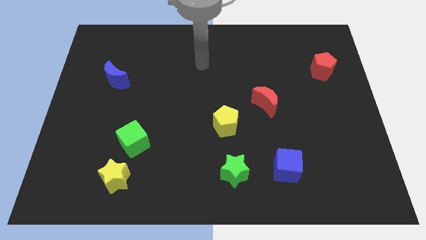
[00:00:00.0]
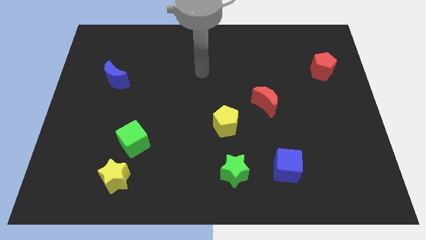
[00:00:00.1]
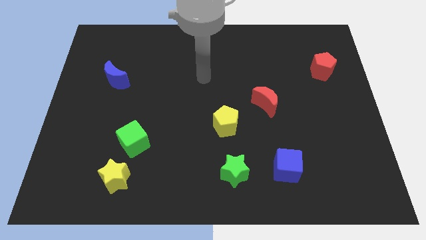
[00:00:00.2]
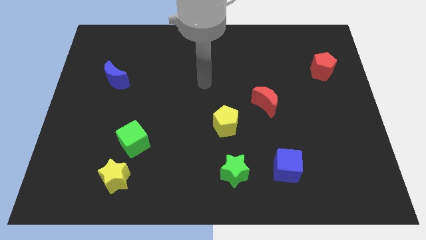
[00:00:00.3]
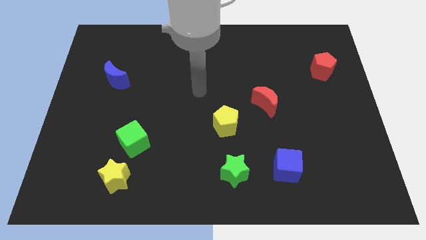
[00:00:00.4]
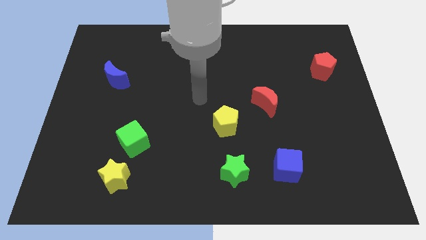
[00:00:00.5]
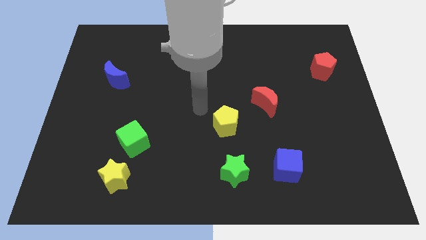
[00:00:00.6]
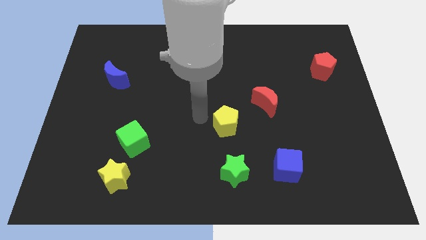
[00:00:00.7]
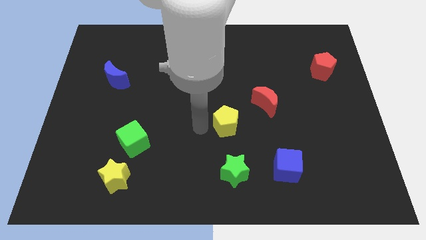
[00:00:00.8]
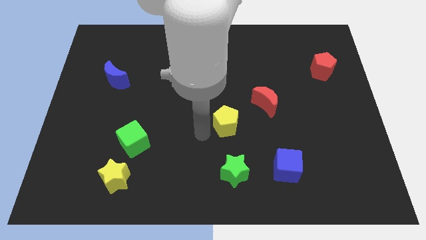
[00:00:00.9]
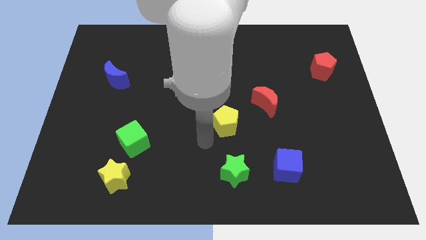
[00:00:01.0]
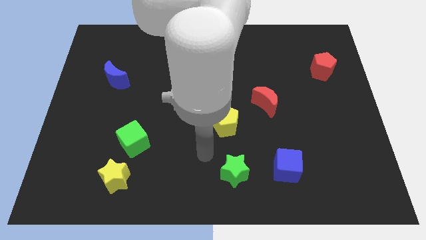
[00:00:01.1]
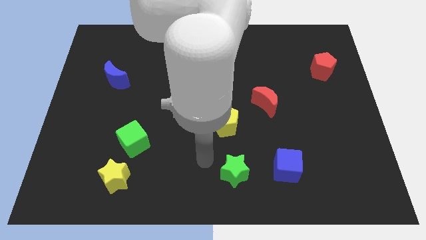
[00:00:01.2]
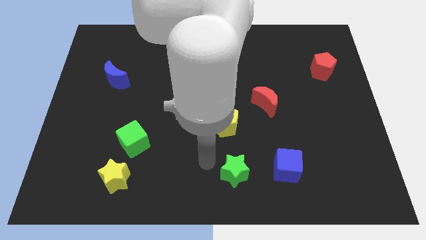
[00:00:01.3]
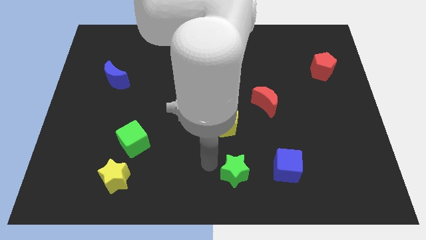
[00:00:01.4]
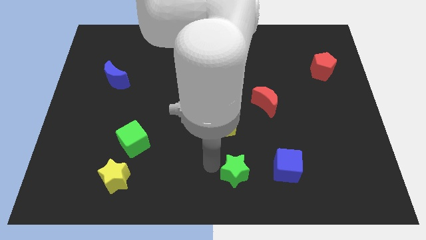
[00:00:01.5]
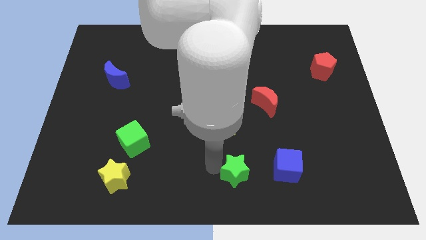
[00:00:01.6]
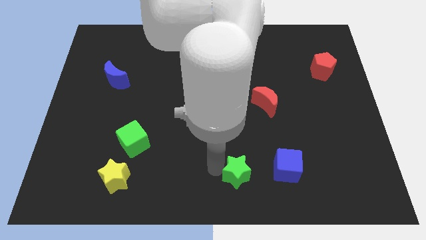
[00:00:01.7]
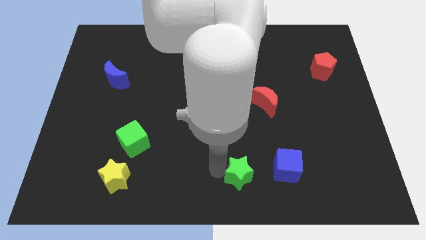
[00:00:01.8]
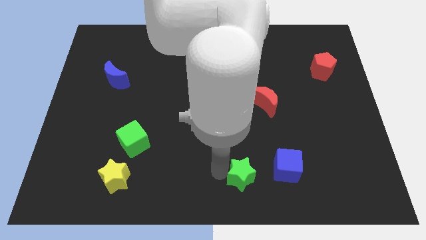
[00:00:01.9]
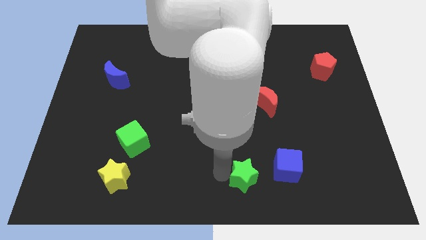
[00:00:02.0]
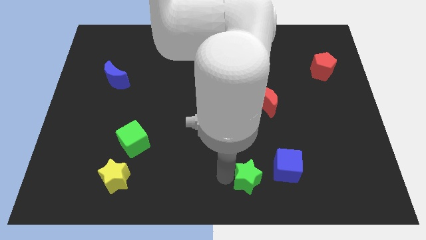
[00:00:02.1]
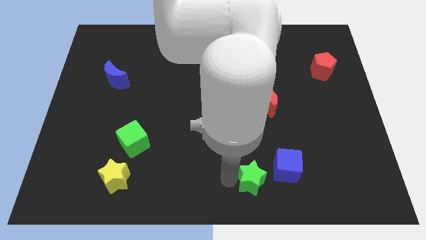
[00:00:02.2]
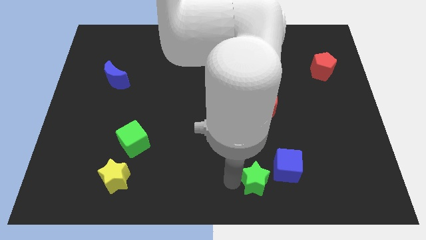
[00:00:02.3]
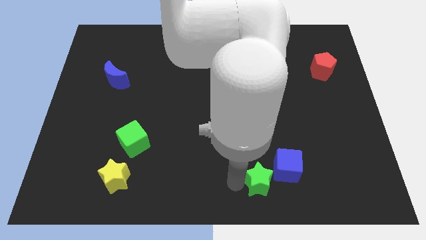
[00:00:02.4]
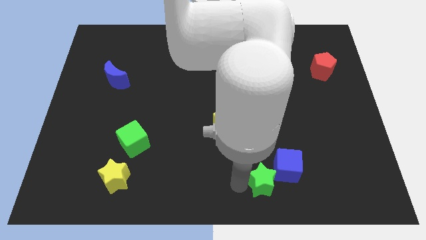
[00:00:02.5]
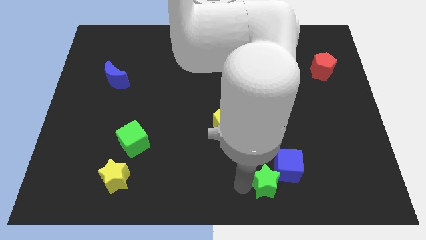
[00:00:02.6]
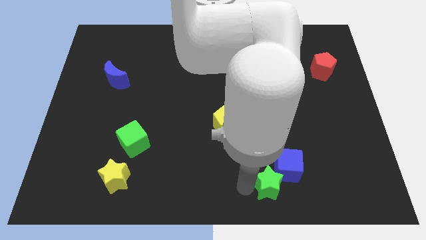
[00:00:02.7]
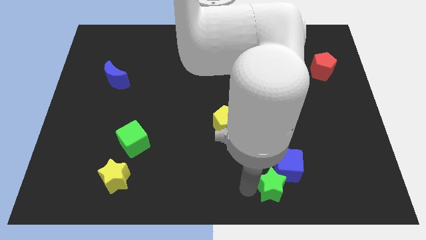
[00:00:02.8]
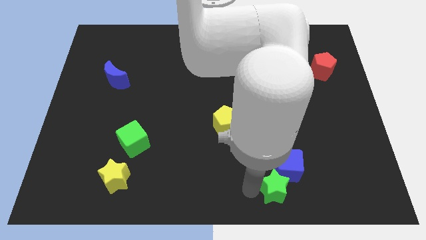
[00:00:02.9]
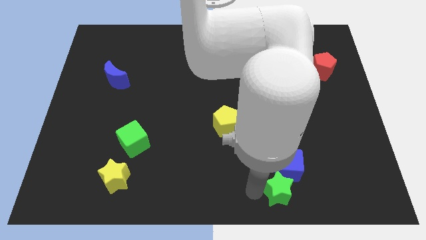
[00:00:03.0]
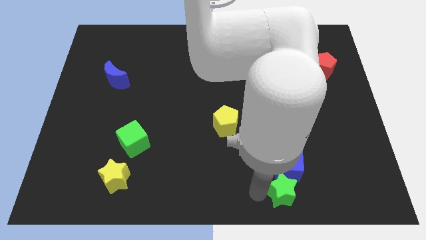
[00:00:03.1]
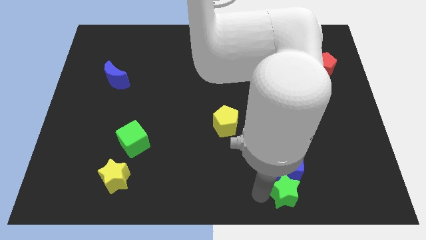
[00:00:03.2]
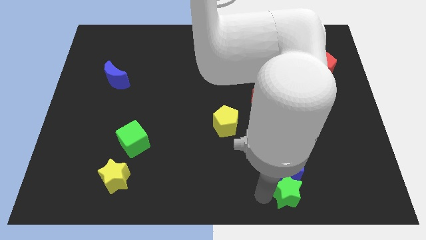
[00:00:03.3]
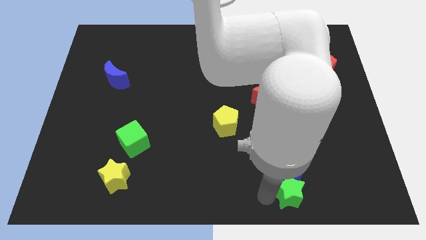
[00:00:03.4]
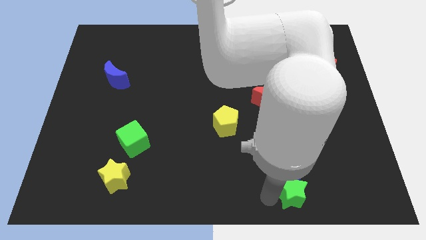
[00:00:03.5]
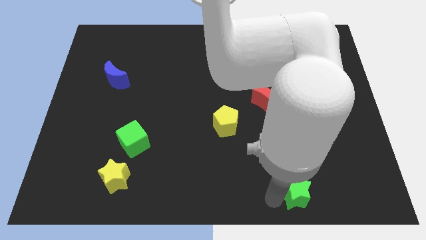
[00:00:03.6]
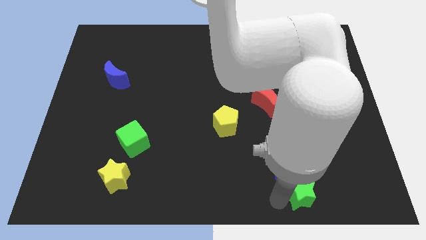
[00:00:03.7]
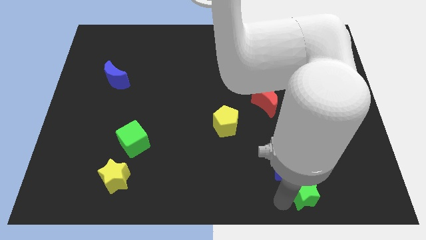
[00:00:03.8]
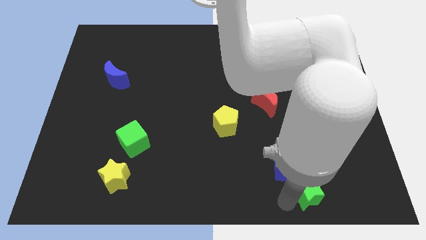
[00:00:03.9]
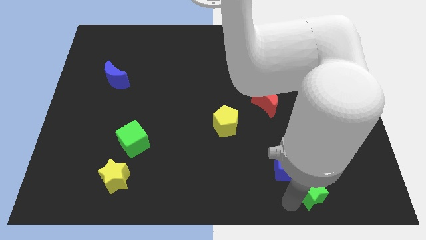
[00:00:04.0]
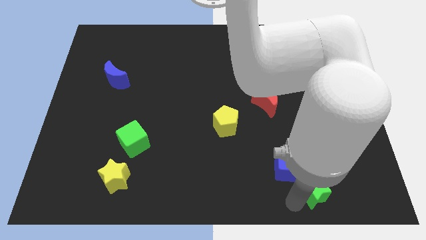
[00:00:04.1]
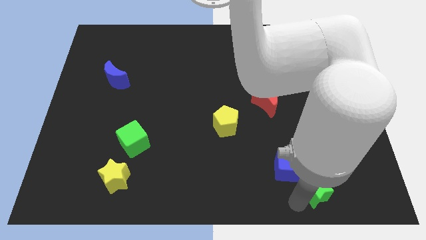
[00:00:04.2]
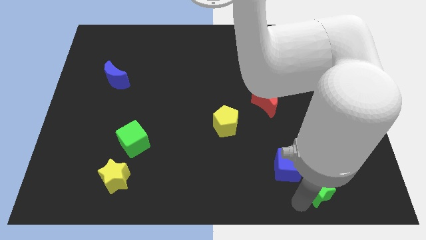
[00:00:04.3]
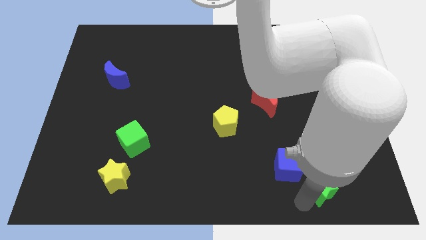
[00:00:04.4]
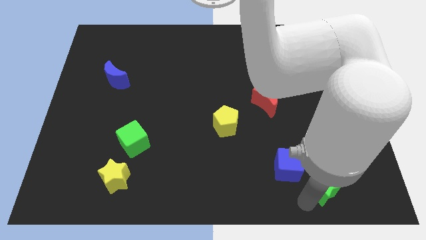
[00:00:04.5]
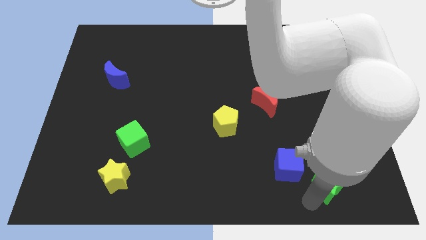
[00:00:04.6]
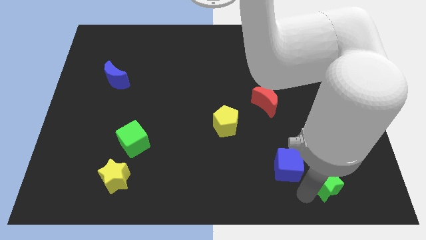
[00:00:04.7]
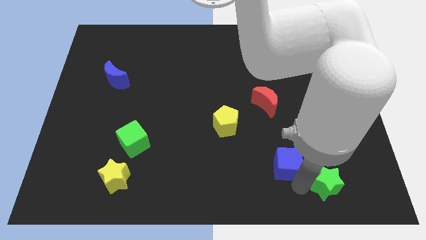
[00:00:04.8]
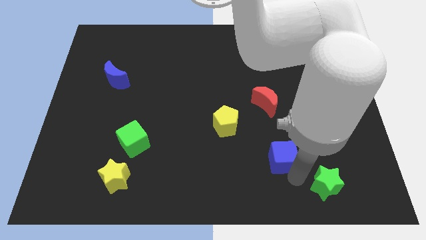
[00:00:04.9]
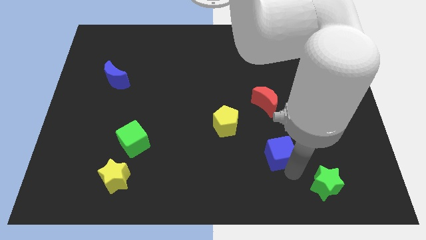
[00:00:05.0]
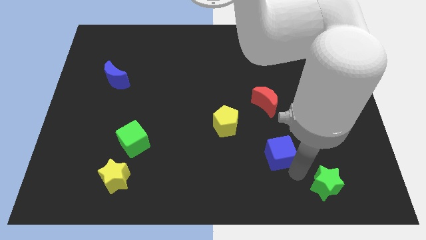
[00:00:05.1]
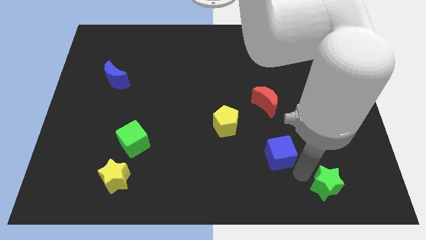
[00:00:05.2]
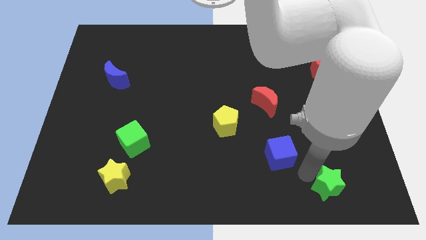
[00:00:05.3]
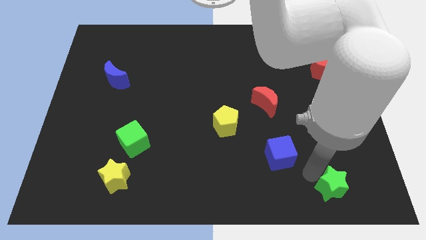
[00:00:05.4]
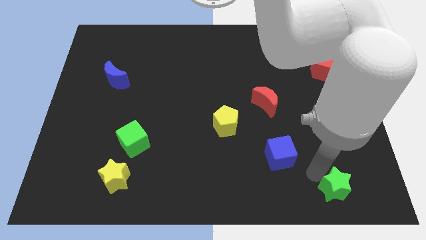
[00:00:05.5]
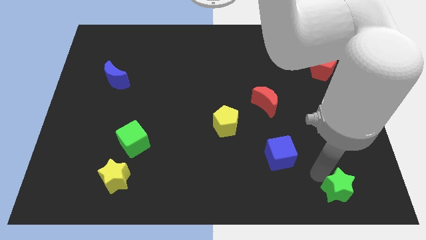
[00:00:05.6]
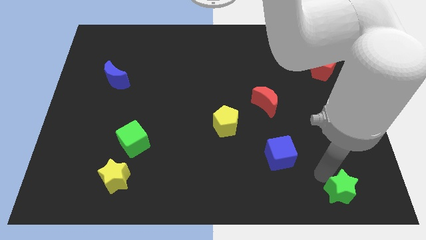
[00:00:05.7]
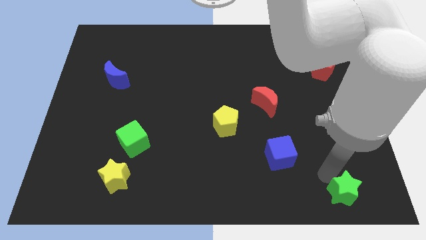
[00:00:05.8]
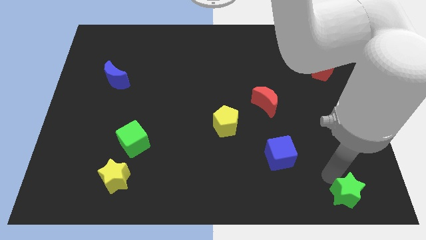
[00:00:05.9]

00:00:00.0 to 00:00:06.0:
move the green star to the bottom right of the board
